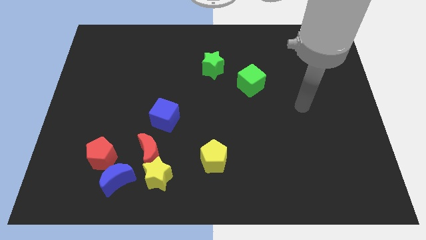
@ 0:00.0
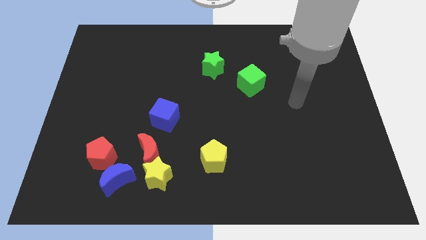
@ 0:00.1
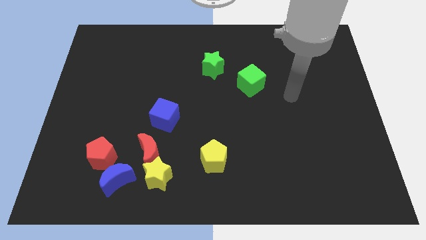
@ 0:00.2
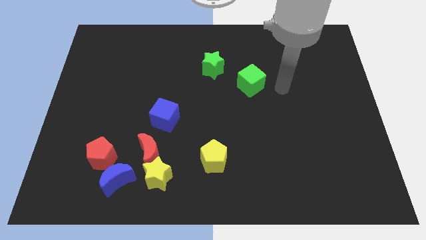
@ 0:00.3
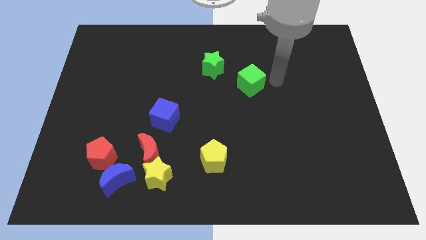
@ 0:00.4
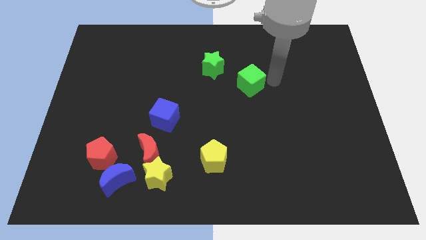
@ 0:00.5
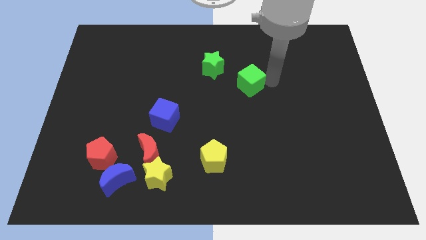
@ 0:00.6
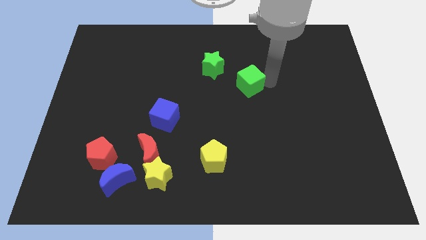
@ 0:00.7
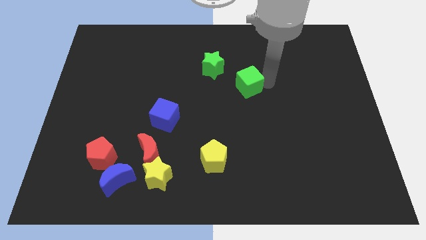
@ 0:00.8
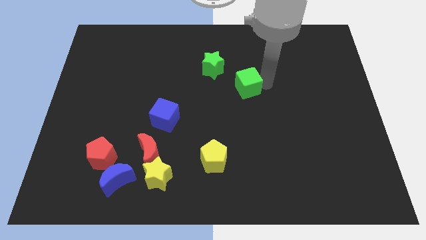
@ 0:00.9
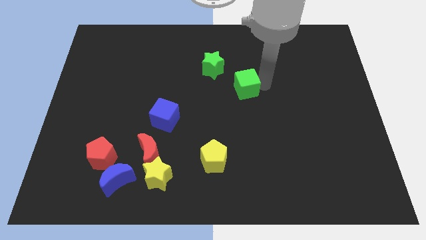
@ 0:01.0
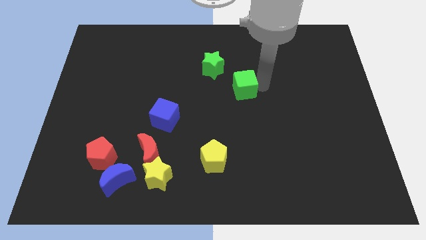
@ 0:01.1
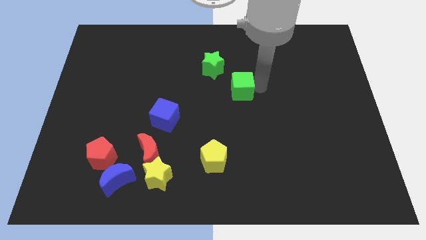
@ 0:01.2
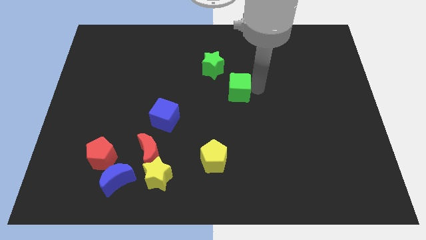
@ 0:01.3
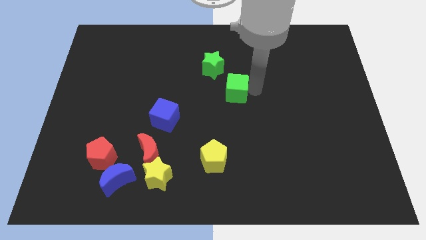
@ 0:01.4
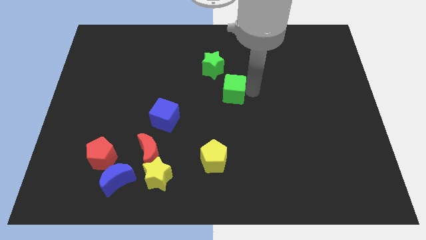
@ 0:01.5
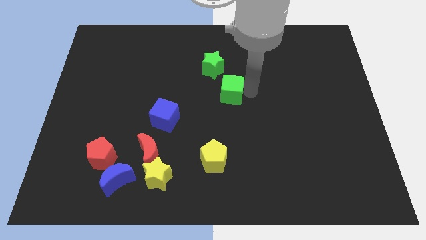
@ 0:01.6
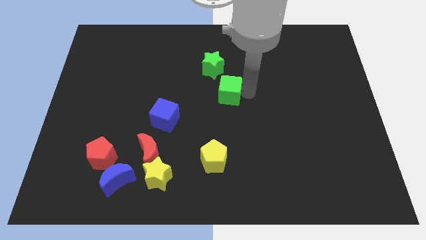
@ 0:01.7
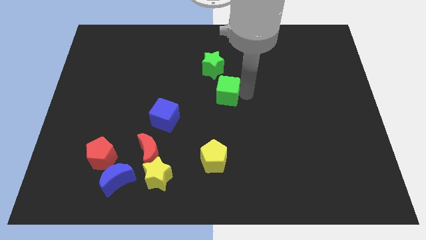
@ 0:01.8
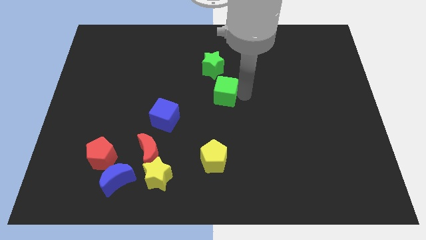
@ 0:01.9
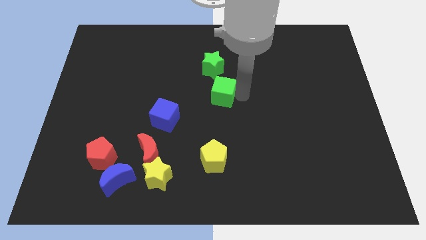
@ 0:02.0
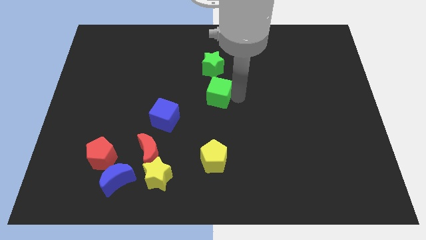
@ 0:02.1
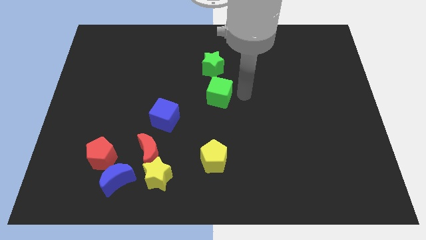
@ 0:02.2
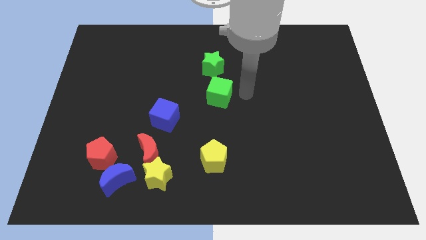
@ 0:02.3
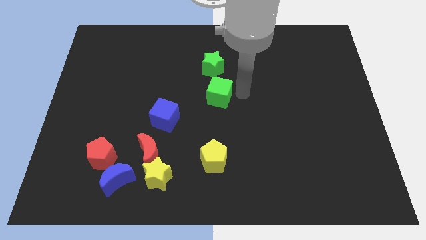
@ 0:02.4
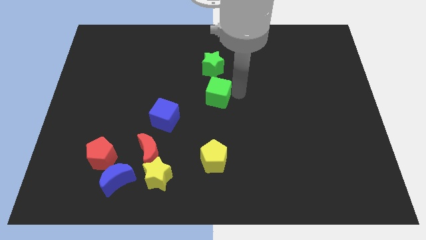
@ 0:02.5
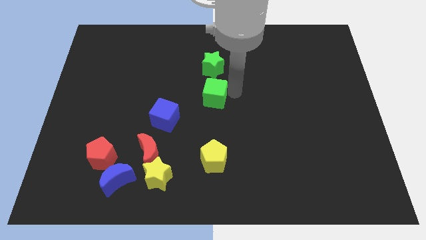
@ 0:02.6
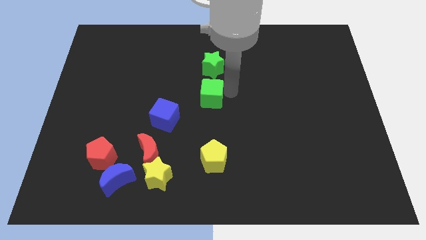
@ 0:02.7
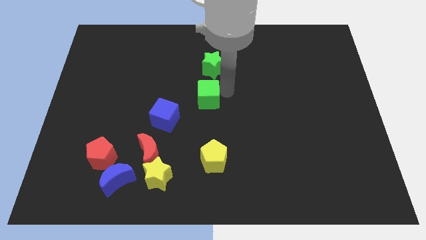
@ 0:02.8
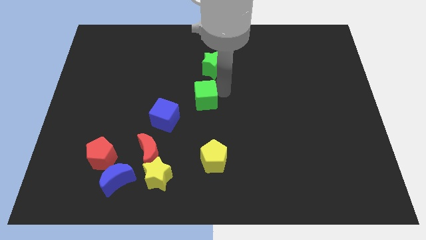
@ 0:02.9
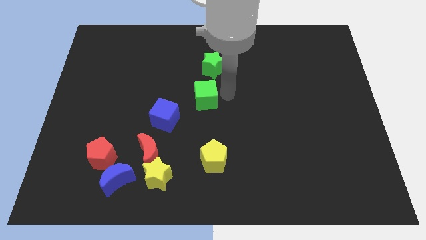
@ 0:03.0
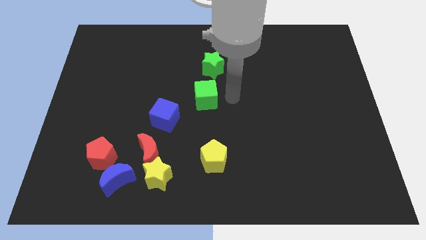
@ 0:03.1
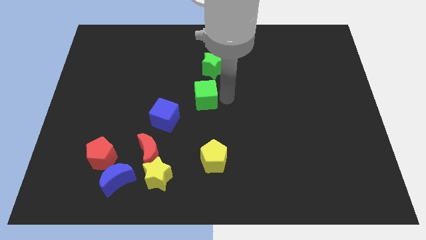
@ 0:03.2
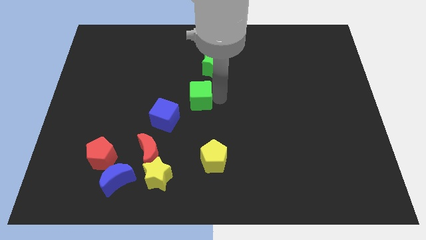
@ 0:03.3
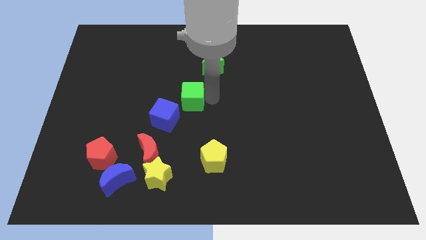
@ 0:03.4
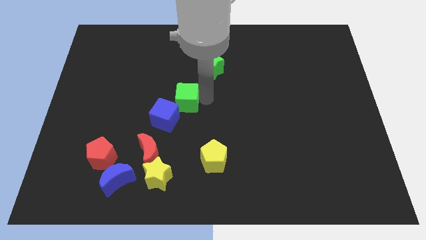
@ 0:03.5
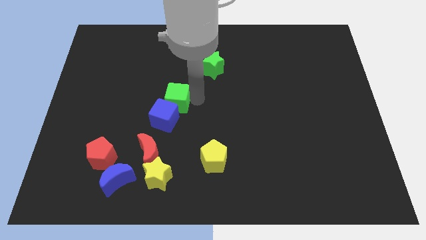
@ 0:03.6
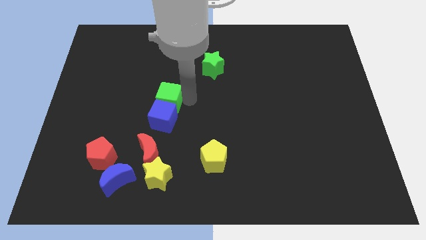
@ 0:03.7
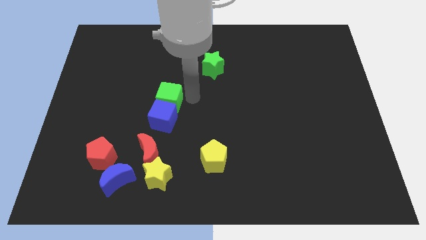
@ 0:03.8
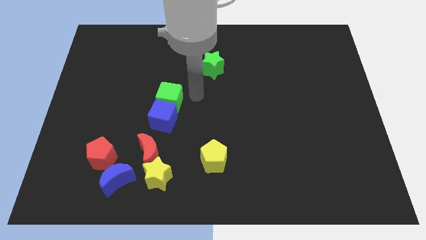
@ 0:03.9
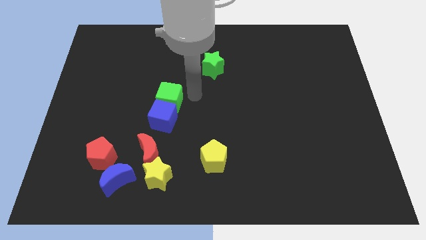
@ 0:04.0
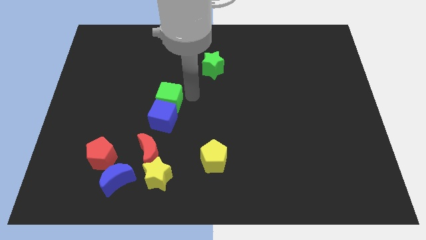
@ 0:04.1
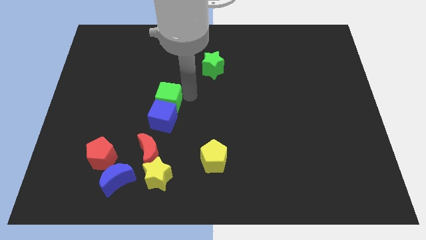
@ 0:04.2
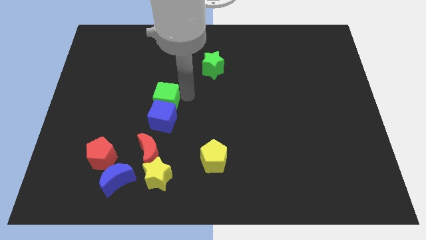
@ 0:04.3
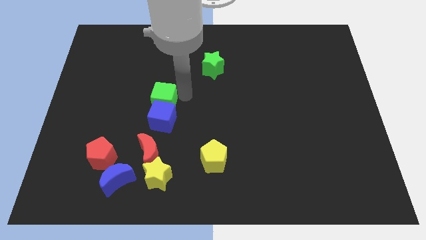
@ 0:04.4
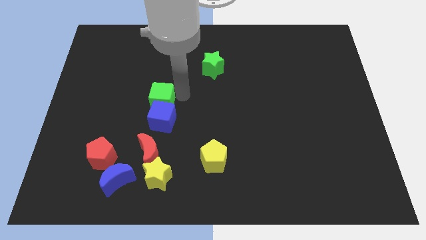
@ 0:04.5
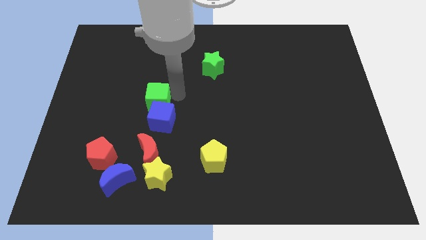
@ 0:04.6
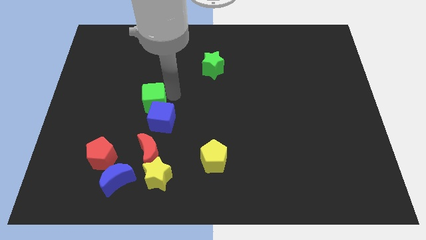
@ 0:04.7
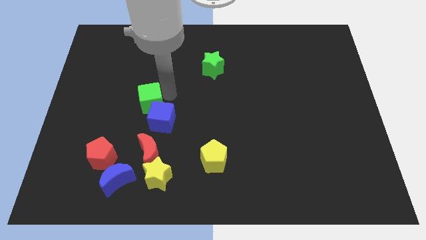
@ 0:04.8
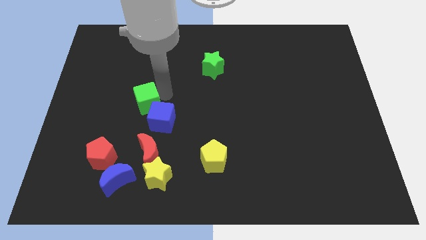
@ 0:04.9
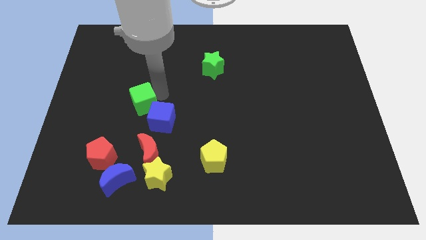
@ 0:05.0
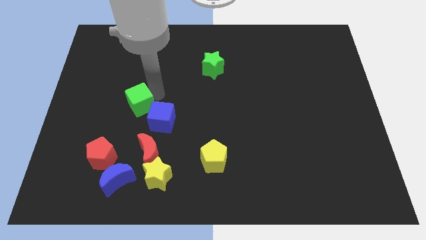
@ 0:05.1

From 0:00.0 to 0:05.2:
push the green cube to the left side of the blue cube

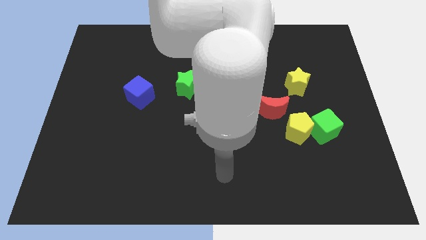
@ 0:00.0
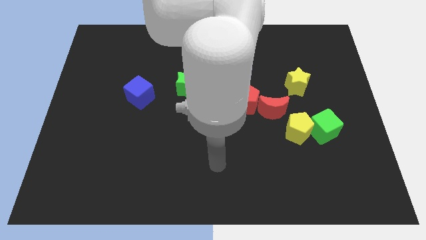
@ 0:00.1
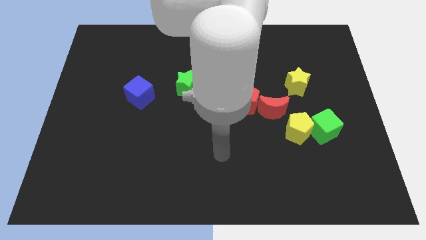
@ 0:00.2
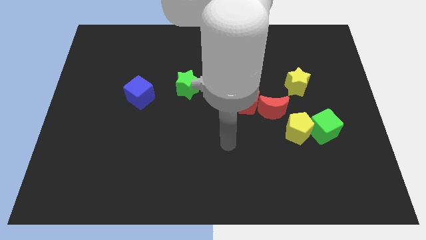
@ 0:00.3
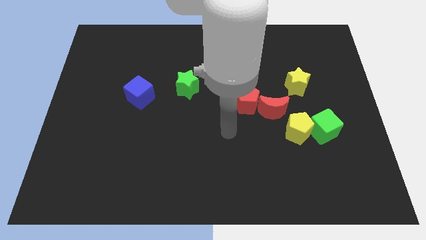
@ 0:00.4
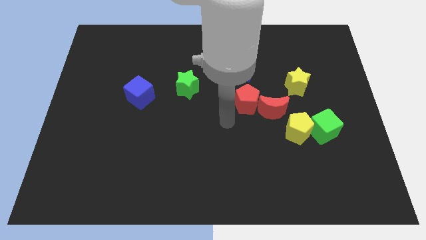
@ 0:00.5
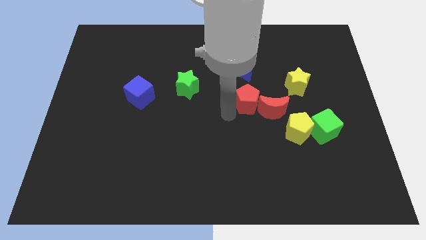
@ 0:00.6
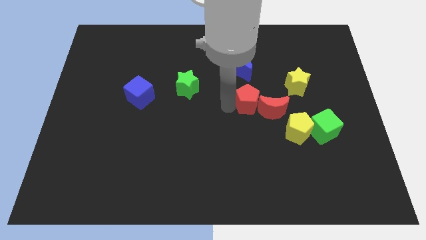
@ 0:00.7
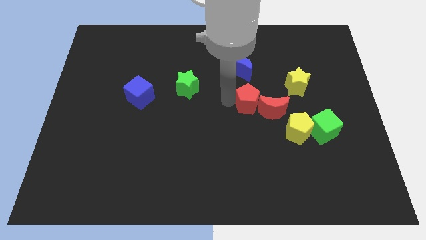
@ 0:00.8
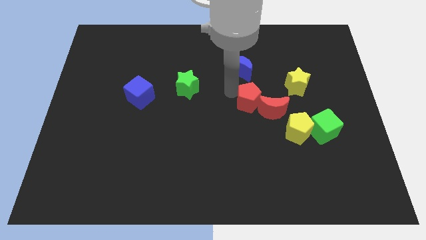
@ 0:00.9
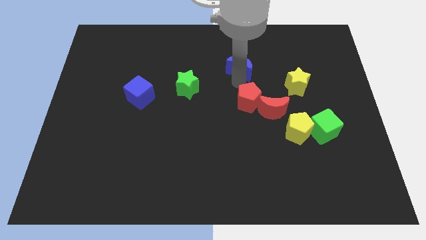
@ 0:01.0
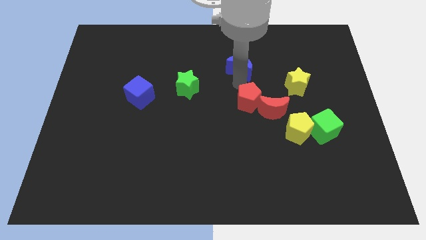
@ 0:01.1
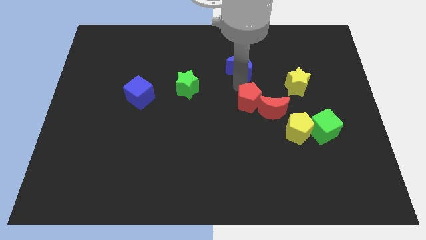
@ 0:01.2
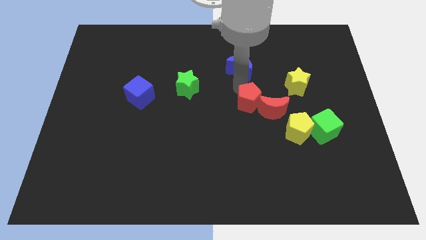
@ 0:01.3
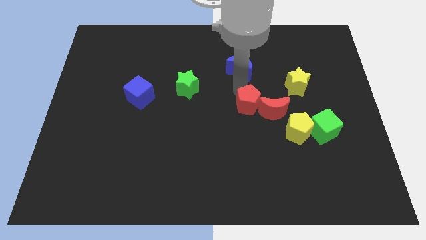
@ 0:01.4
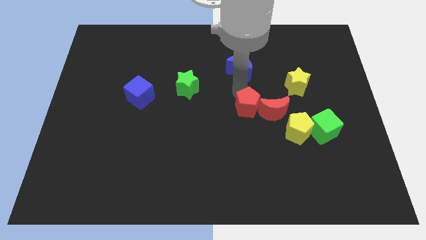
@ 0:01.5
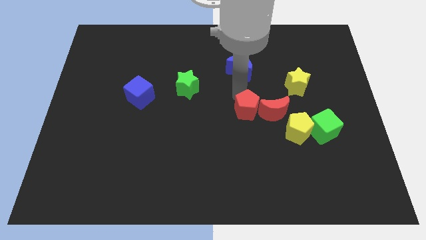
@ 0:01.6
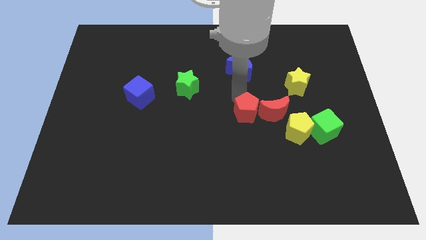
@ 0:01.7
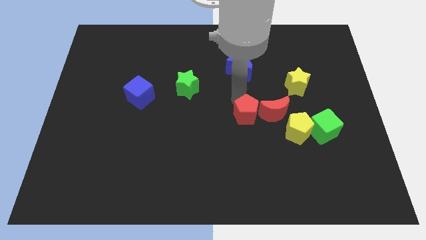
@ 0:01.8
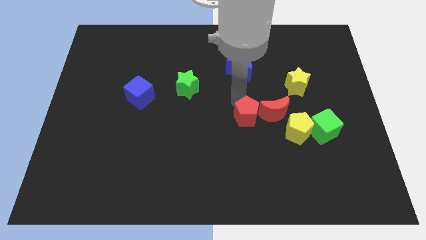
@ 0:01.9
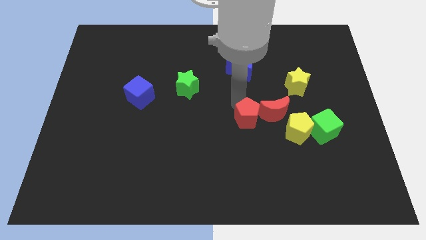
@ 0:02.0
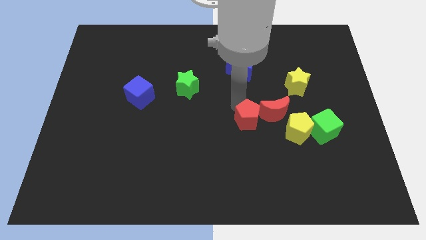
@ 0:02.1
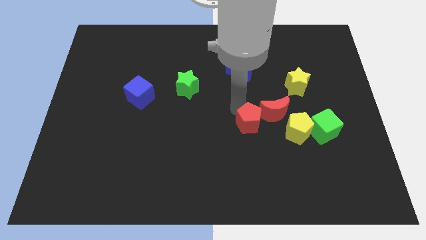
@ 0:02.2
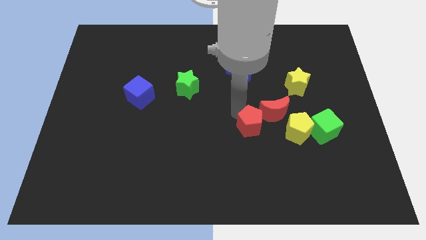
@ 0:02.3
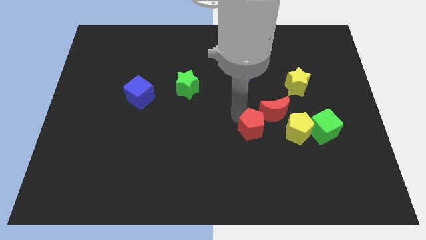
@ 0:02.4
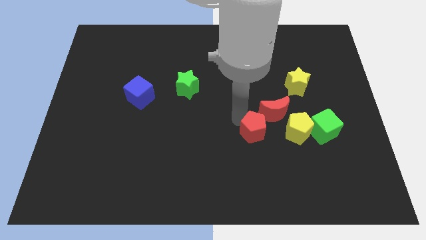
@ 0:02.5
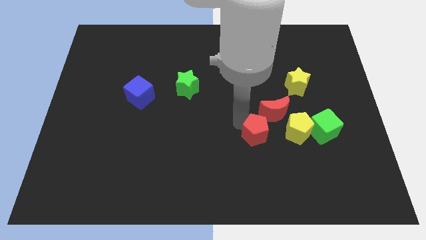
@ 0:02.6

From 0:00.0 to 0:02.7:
move the red pentagon to the bottom side of the red moon

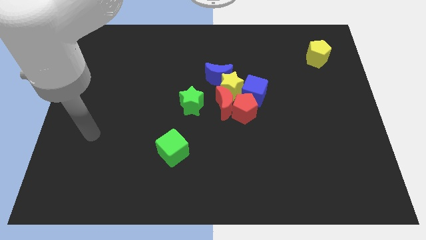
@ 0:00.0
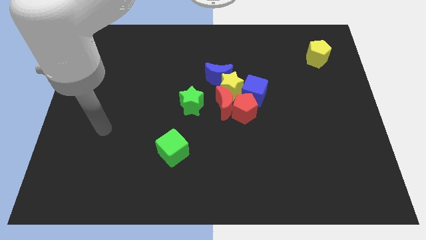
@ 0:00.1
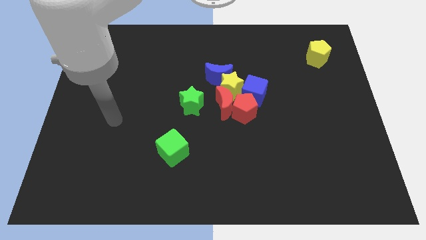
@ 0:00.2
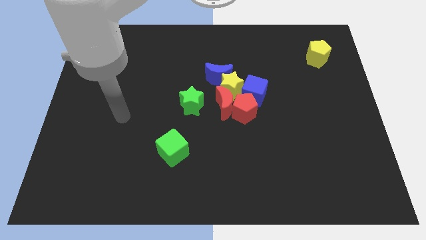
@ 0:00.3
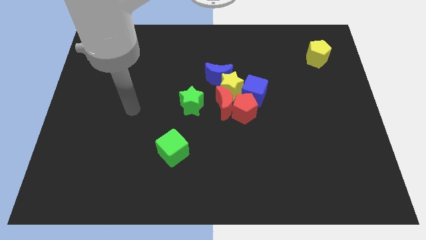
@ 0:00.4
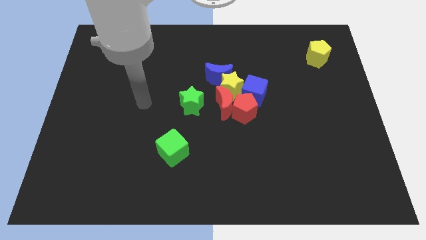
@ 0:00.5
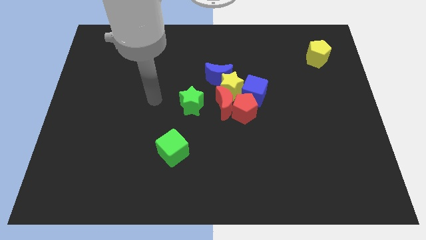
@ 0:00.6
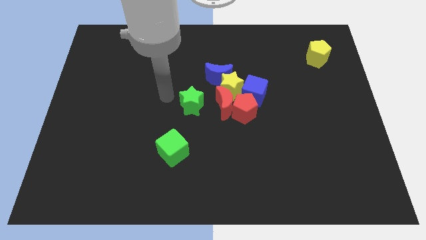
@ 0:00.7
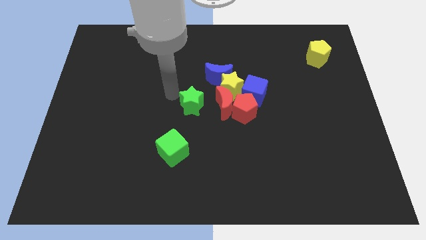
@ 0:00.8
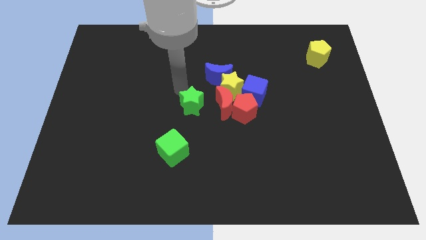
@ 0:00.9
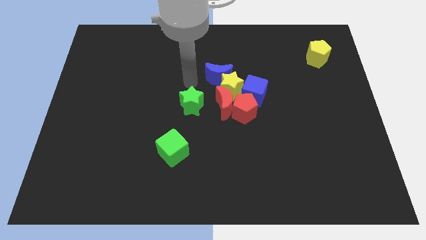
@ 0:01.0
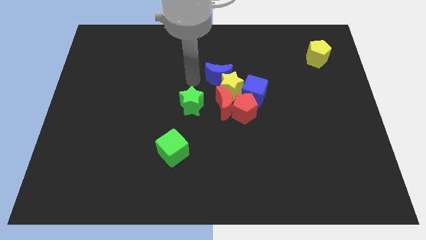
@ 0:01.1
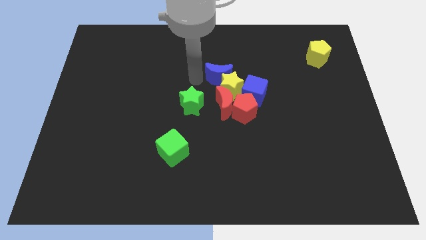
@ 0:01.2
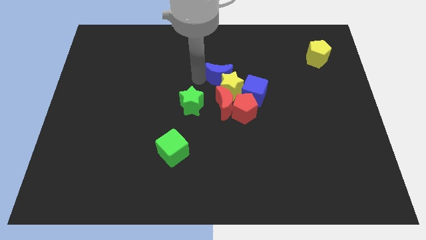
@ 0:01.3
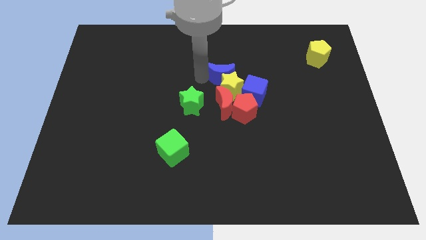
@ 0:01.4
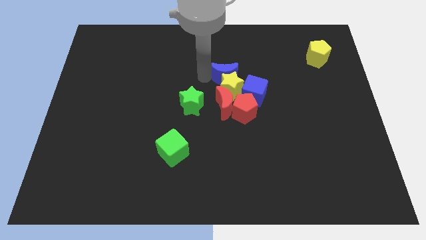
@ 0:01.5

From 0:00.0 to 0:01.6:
move the blue moon to the top of the red pentagon
